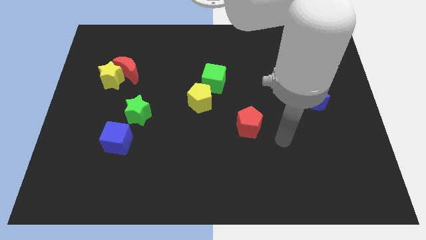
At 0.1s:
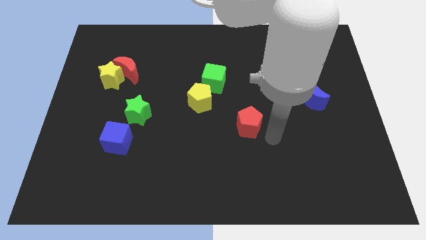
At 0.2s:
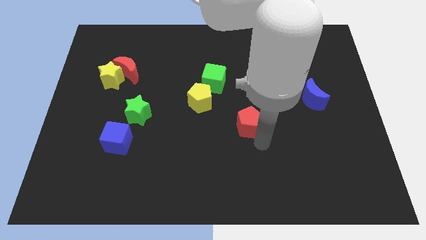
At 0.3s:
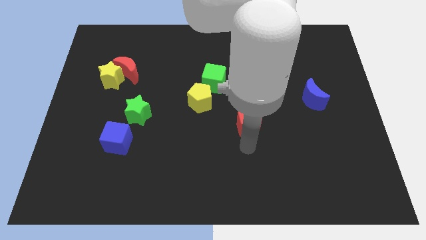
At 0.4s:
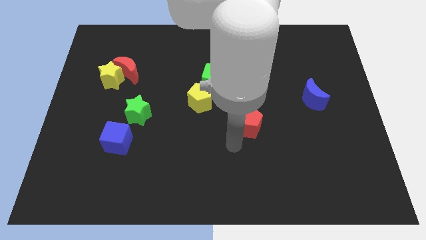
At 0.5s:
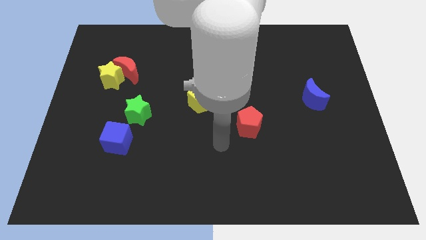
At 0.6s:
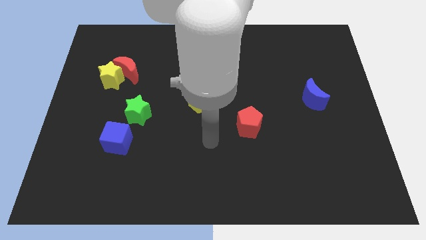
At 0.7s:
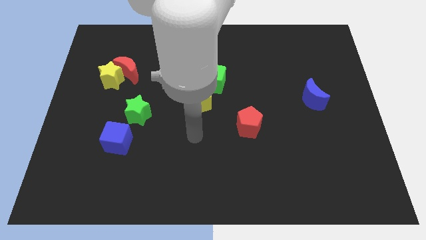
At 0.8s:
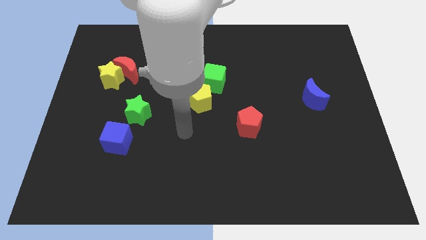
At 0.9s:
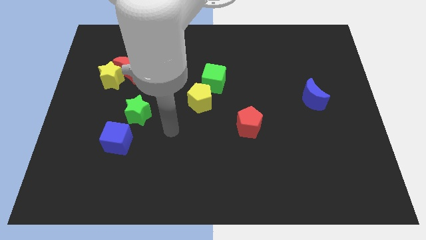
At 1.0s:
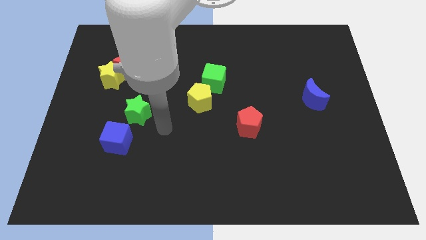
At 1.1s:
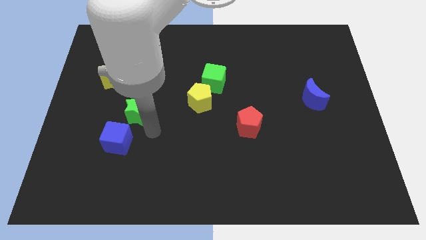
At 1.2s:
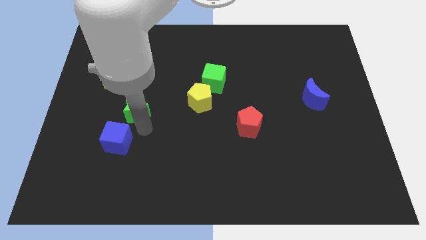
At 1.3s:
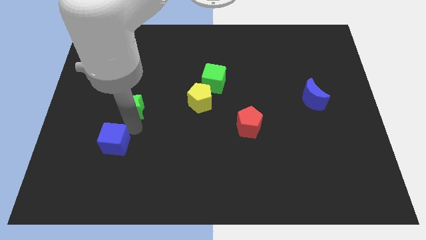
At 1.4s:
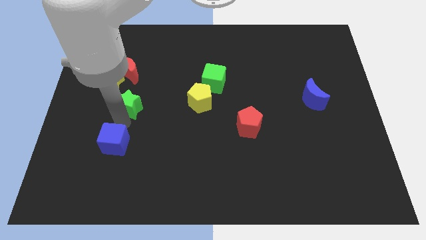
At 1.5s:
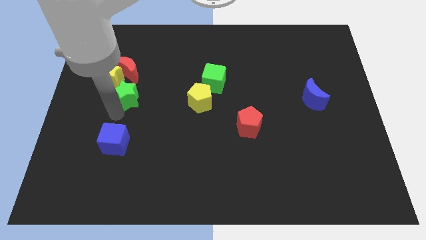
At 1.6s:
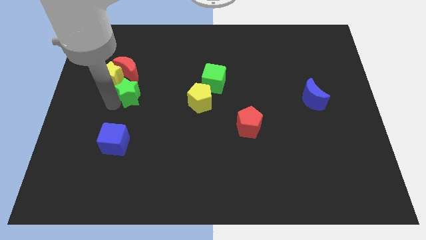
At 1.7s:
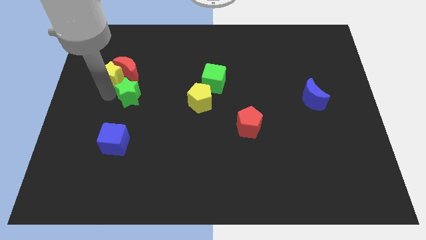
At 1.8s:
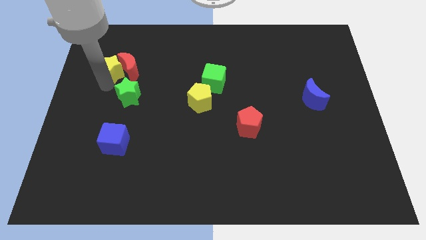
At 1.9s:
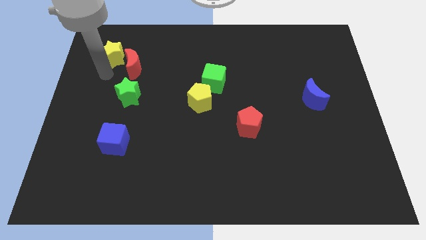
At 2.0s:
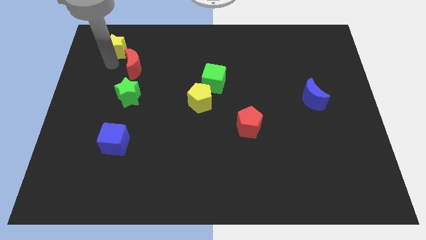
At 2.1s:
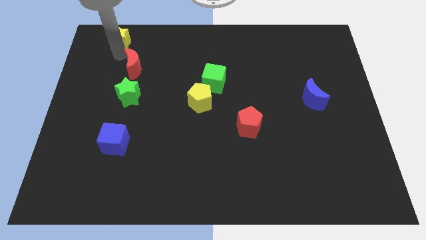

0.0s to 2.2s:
separate the red moon from the yellow star

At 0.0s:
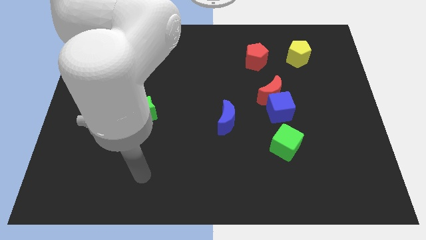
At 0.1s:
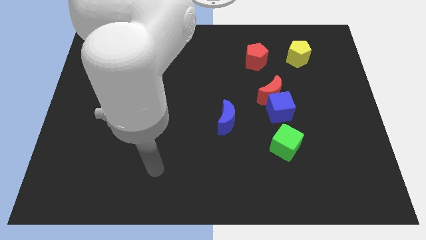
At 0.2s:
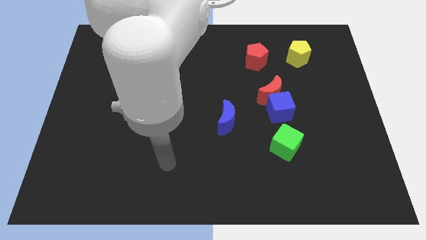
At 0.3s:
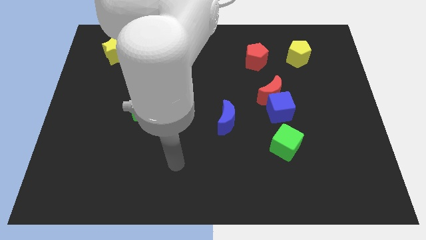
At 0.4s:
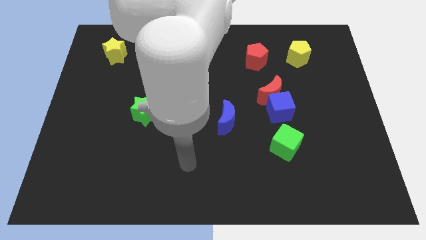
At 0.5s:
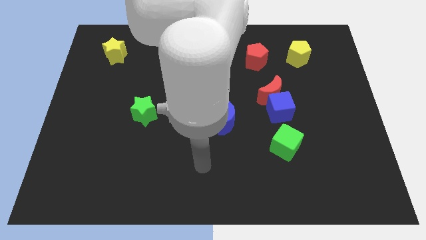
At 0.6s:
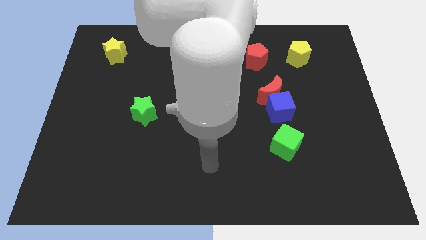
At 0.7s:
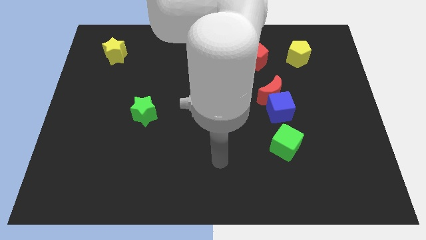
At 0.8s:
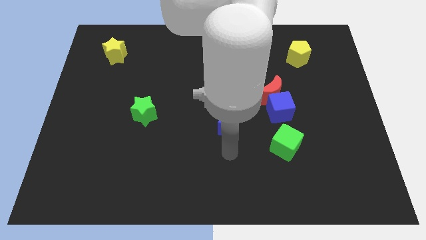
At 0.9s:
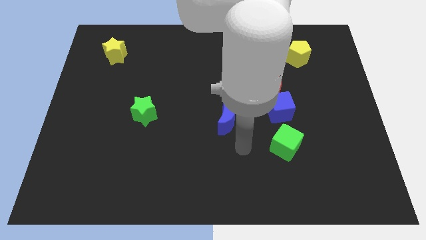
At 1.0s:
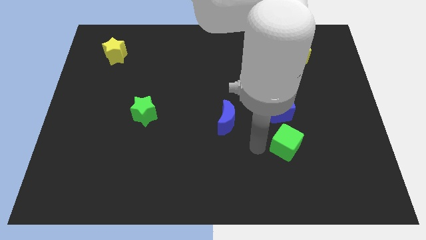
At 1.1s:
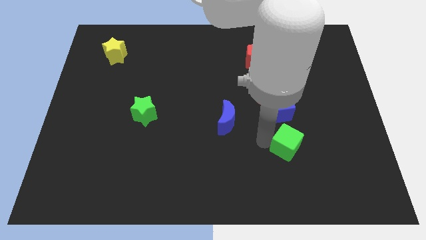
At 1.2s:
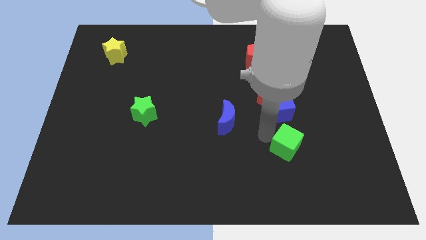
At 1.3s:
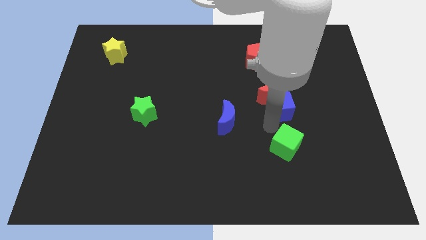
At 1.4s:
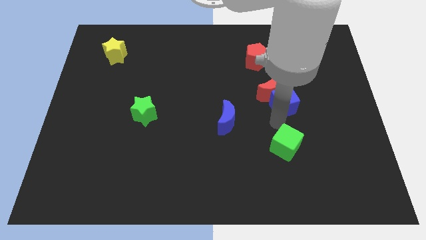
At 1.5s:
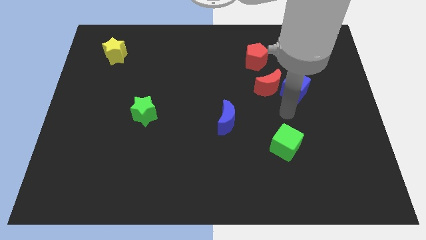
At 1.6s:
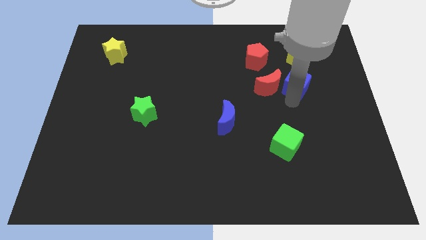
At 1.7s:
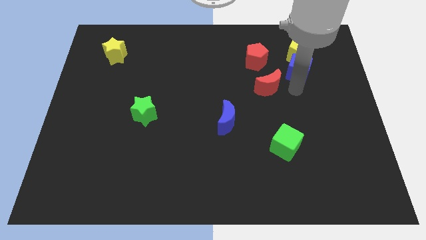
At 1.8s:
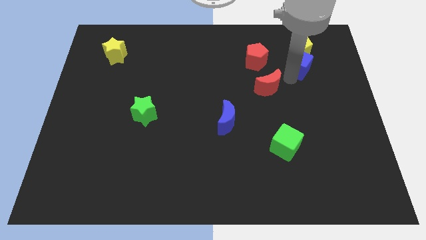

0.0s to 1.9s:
move the red moon away from the blue cube

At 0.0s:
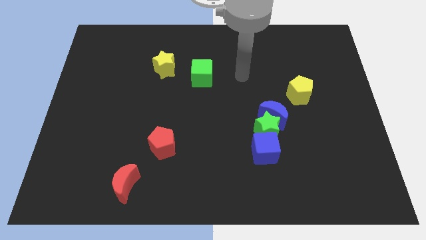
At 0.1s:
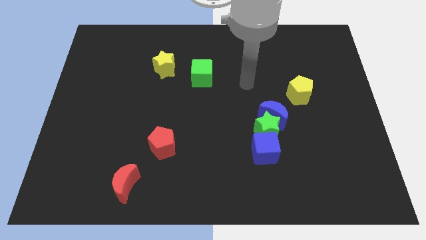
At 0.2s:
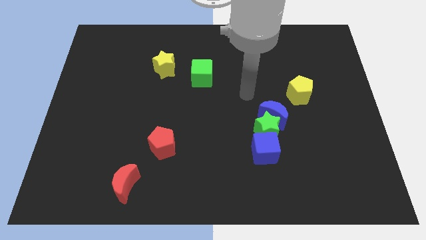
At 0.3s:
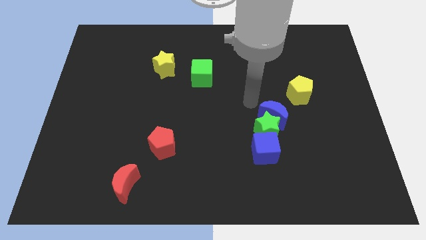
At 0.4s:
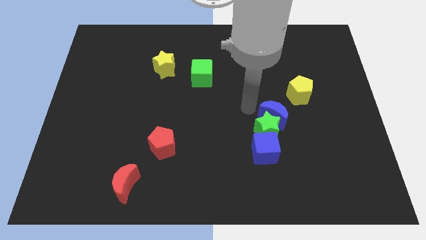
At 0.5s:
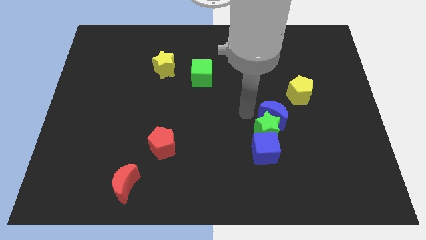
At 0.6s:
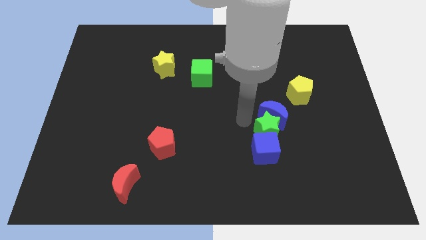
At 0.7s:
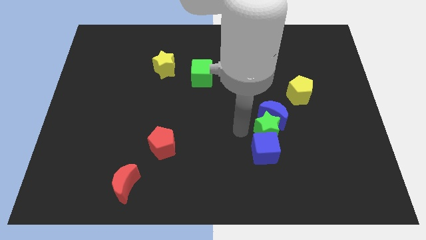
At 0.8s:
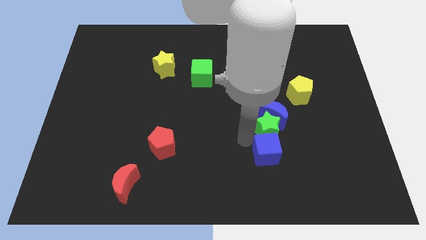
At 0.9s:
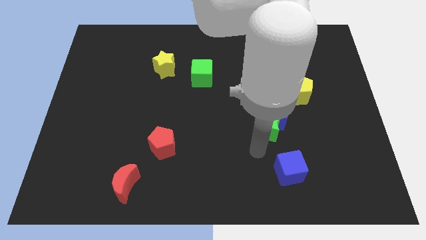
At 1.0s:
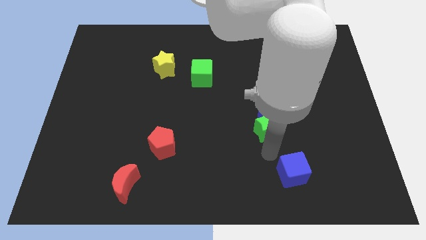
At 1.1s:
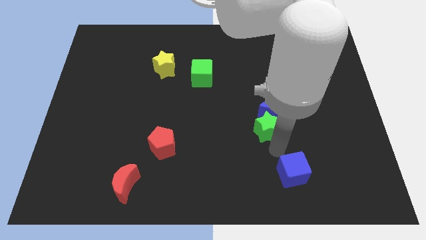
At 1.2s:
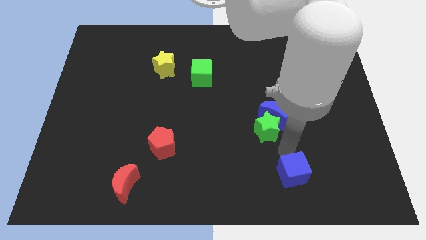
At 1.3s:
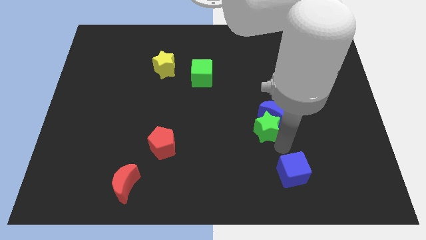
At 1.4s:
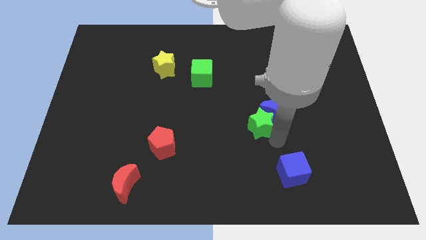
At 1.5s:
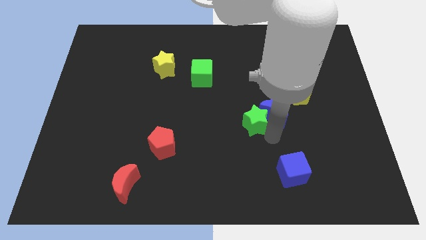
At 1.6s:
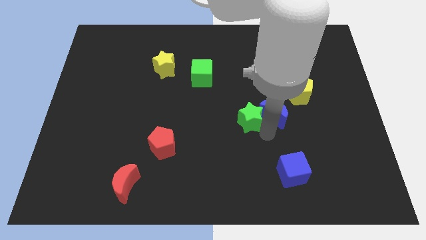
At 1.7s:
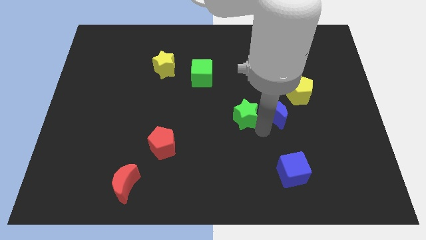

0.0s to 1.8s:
separate the green star from the blue moon and blue cube

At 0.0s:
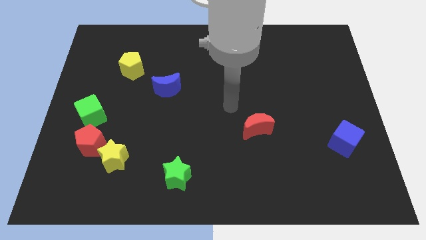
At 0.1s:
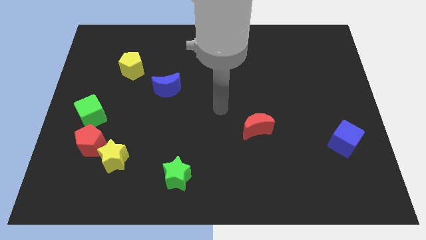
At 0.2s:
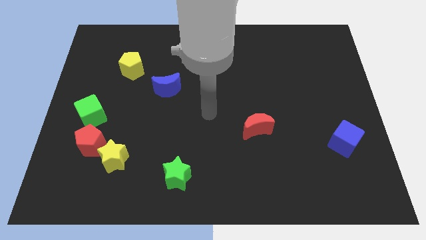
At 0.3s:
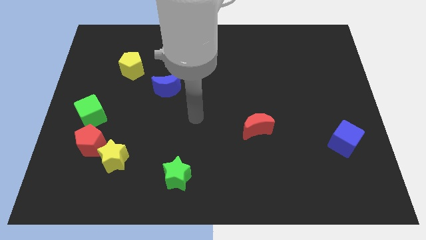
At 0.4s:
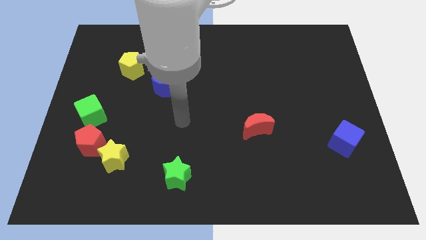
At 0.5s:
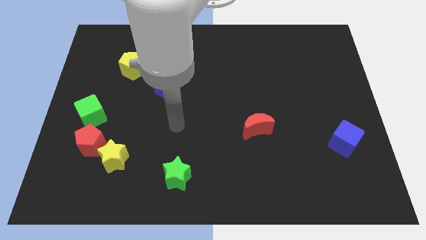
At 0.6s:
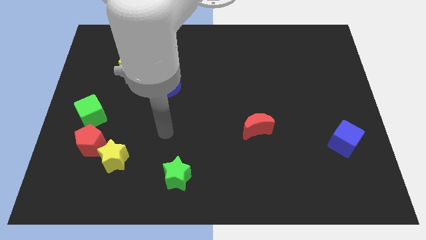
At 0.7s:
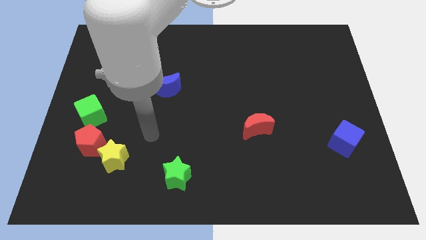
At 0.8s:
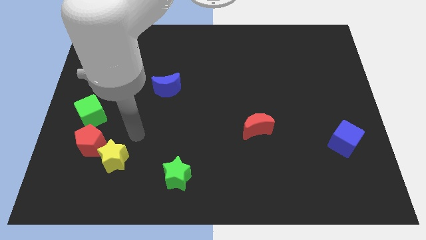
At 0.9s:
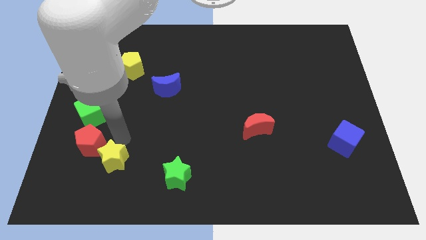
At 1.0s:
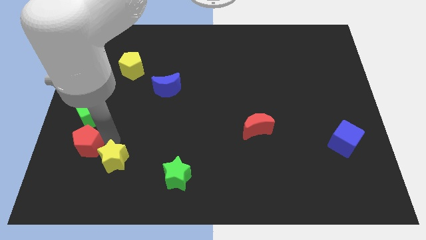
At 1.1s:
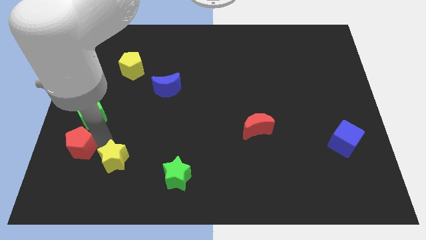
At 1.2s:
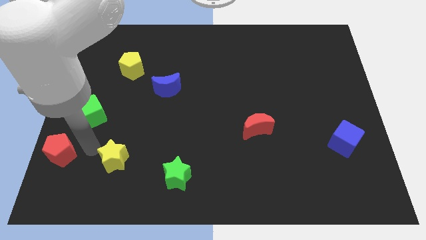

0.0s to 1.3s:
pull the yellow star apart from the red pentagon

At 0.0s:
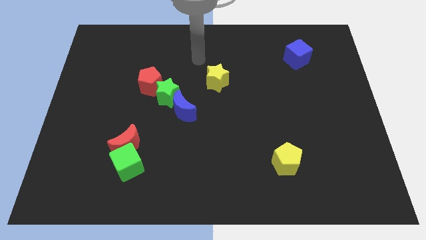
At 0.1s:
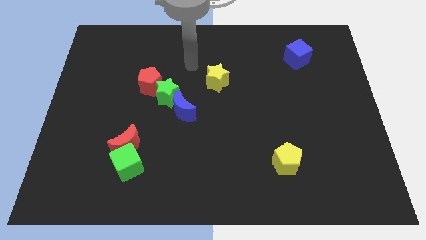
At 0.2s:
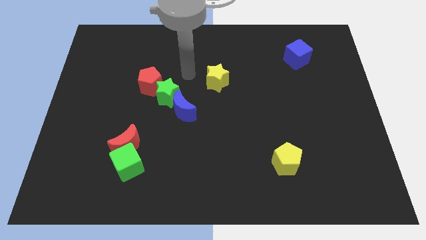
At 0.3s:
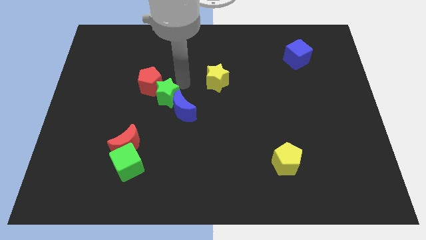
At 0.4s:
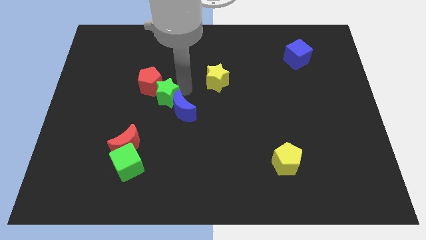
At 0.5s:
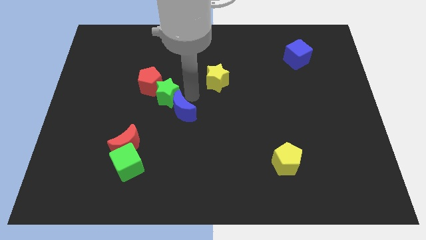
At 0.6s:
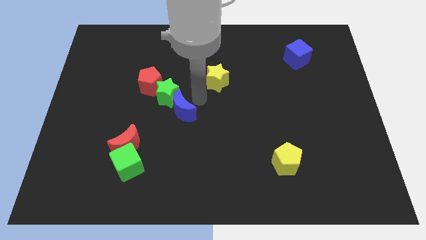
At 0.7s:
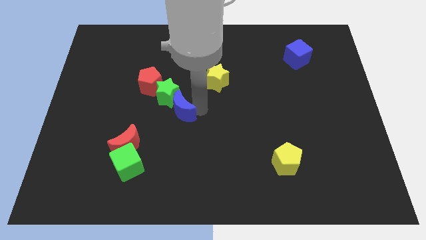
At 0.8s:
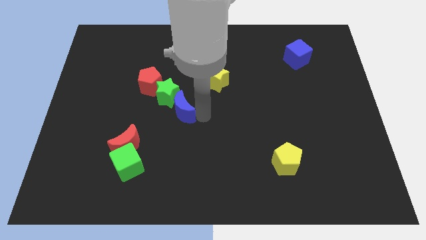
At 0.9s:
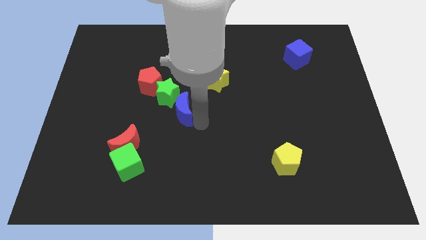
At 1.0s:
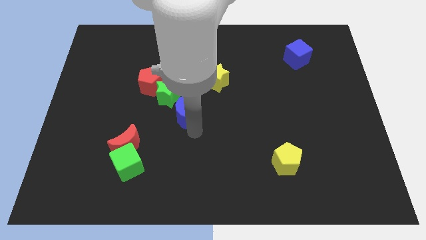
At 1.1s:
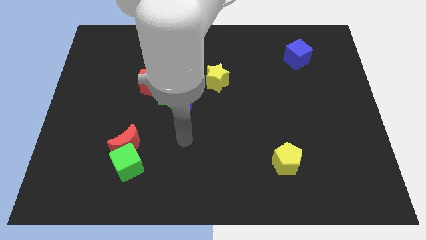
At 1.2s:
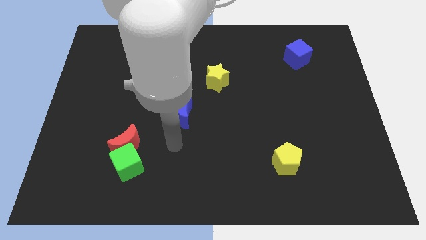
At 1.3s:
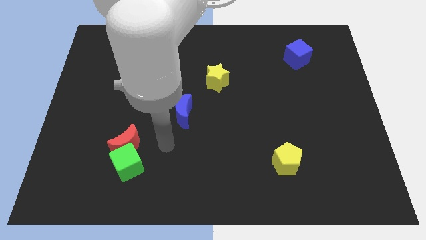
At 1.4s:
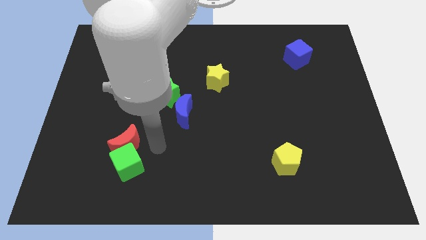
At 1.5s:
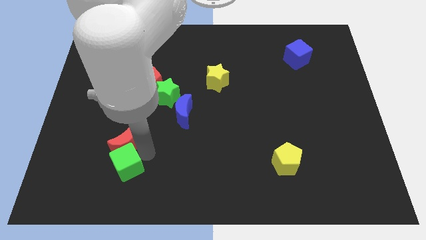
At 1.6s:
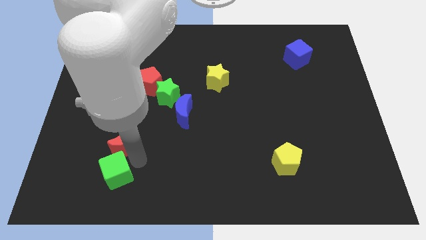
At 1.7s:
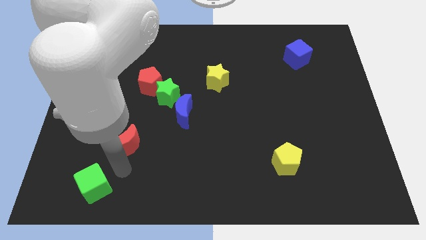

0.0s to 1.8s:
pull the red moon apart from the green cube

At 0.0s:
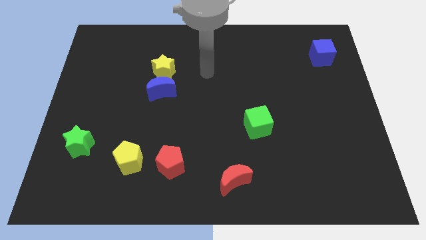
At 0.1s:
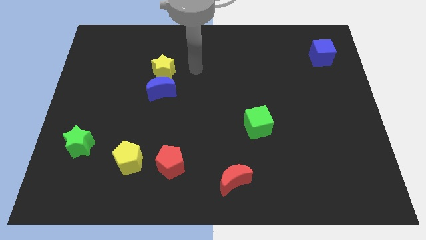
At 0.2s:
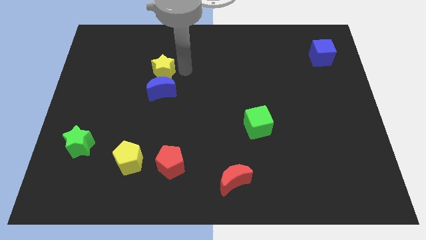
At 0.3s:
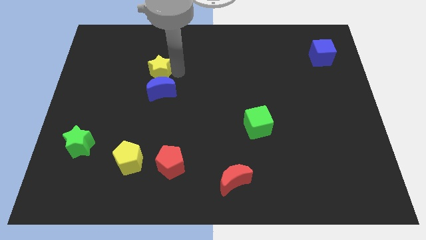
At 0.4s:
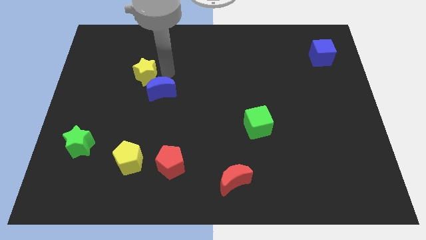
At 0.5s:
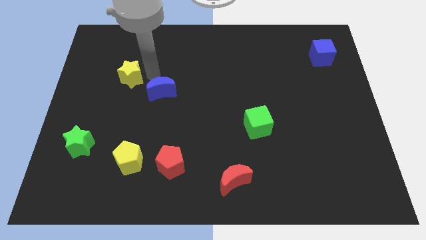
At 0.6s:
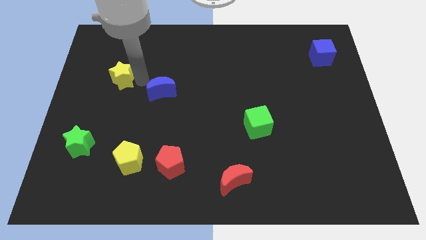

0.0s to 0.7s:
pull the blue moon apart from the yellow star
